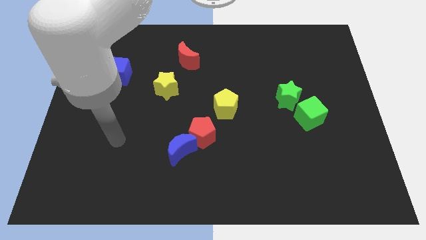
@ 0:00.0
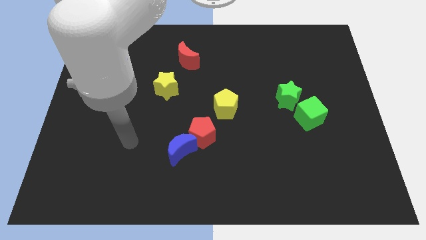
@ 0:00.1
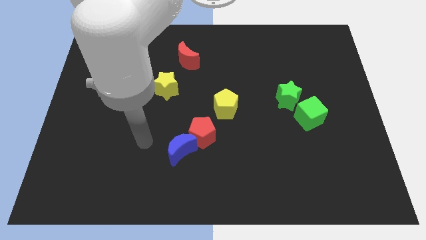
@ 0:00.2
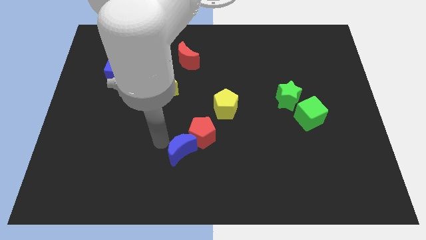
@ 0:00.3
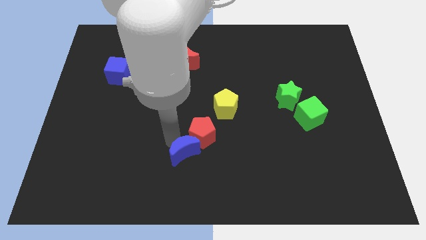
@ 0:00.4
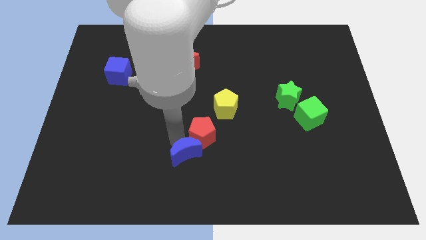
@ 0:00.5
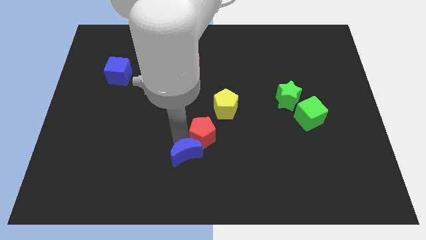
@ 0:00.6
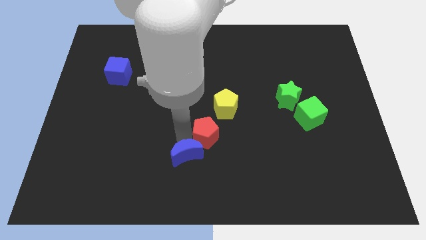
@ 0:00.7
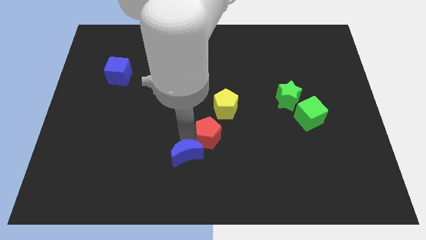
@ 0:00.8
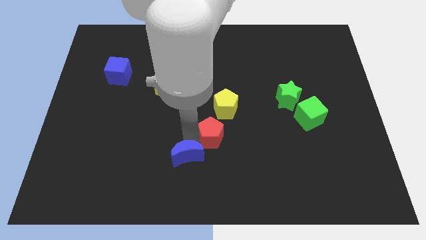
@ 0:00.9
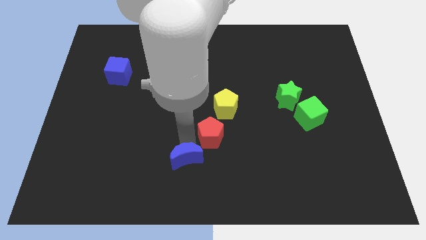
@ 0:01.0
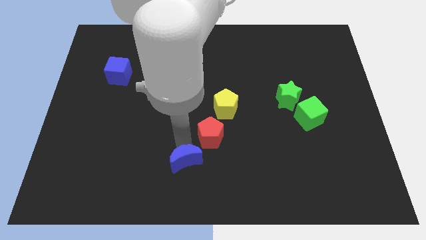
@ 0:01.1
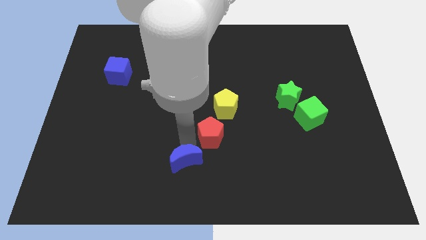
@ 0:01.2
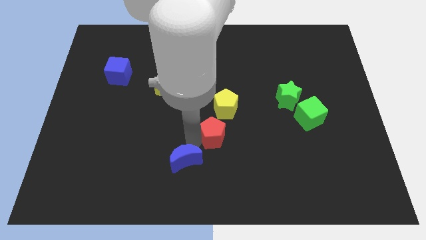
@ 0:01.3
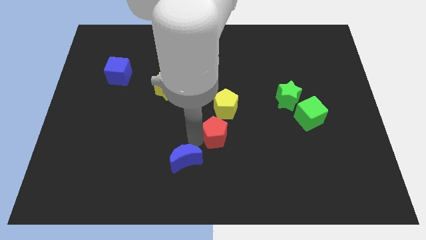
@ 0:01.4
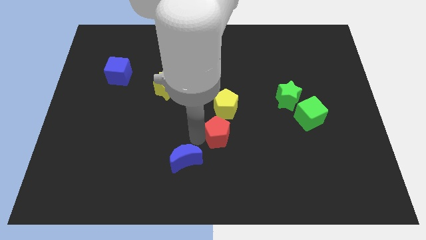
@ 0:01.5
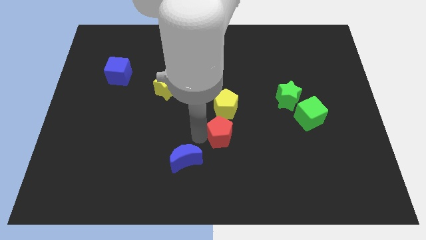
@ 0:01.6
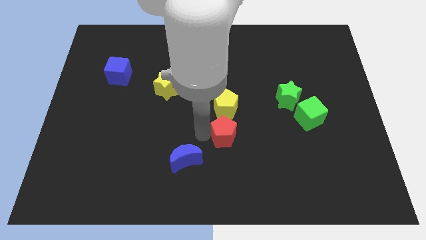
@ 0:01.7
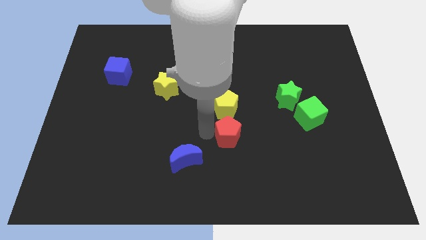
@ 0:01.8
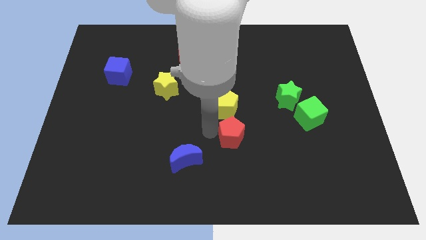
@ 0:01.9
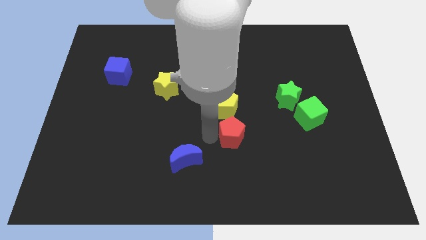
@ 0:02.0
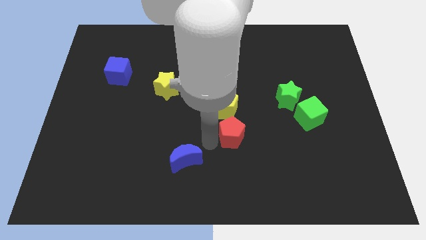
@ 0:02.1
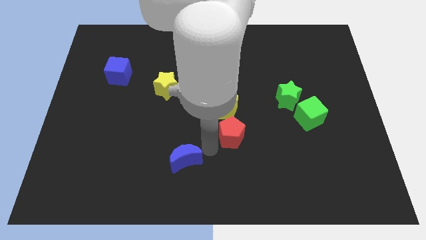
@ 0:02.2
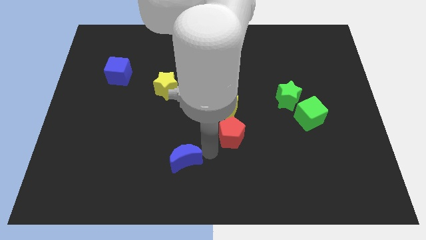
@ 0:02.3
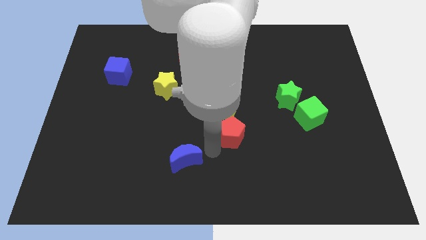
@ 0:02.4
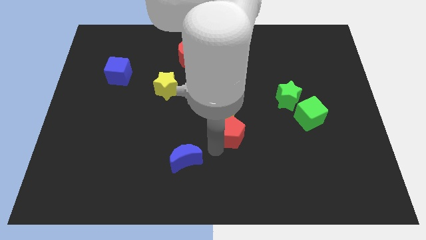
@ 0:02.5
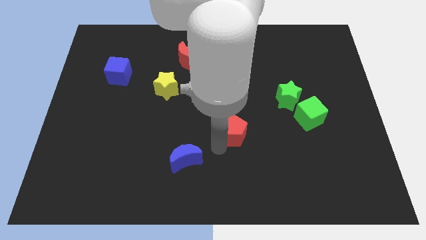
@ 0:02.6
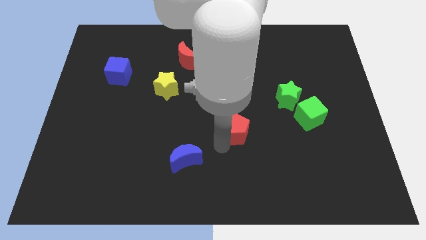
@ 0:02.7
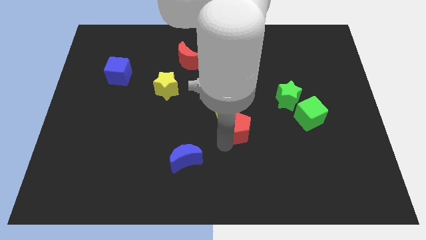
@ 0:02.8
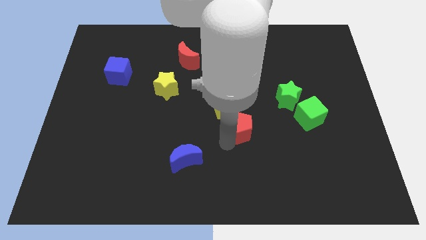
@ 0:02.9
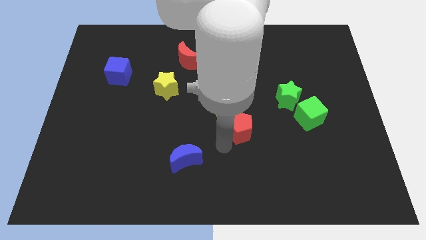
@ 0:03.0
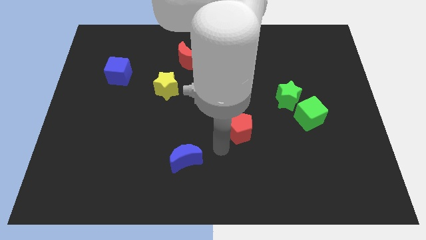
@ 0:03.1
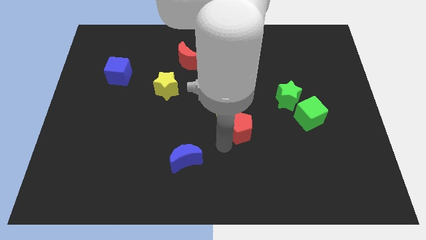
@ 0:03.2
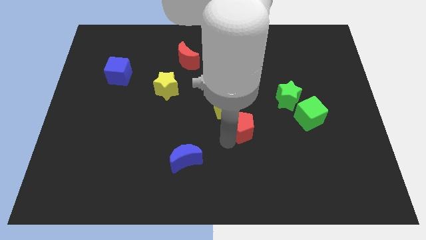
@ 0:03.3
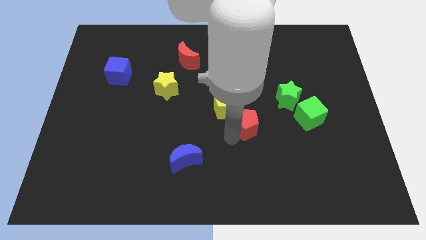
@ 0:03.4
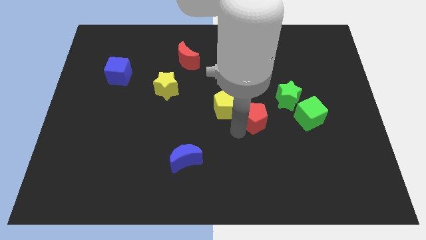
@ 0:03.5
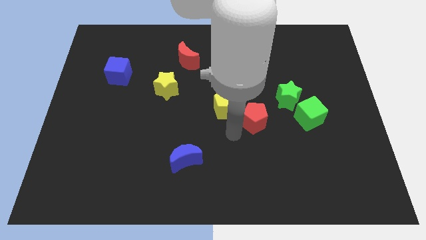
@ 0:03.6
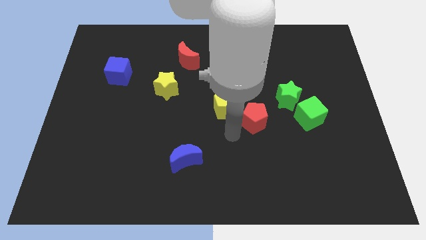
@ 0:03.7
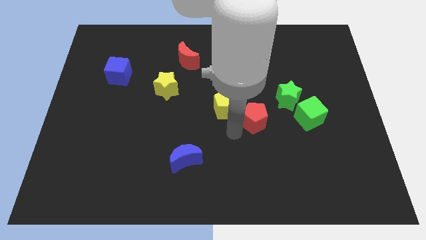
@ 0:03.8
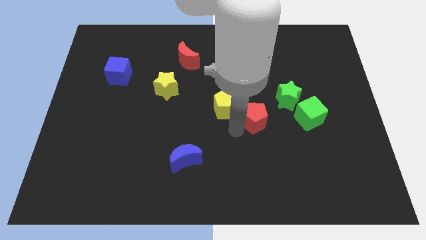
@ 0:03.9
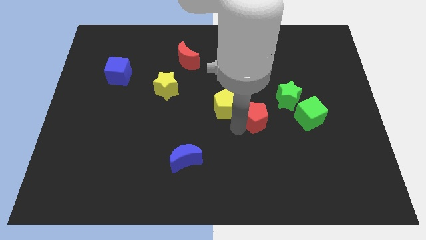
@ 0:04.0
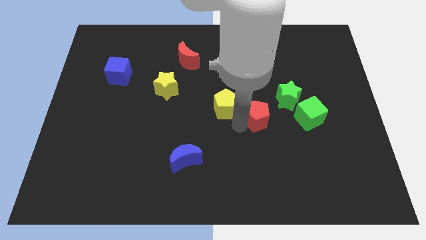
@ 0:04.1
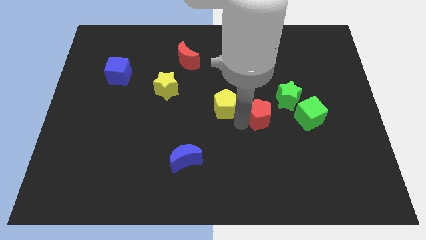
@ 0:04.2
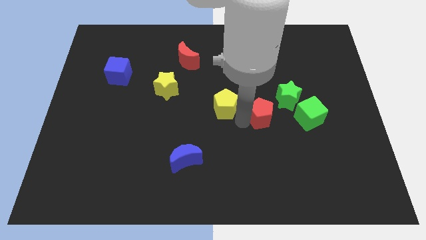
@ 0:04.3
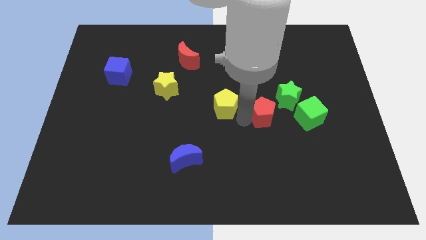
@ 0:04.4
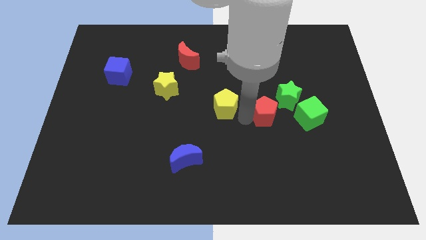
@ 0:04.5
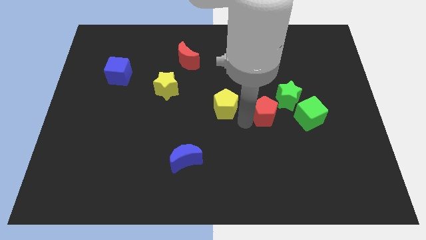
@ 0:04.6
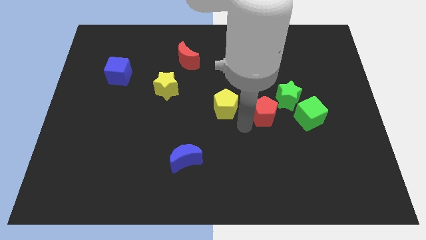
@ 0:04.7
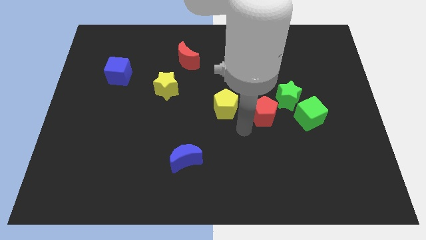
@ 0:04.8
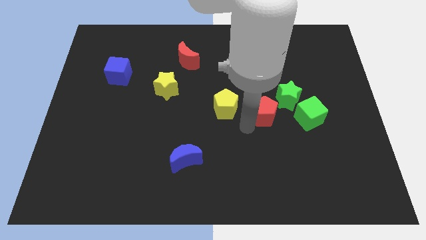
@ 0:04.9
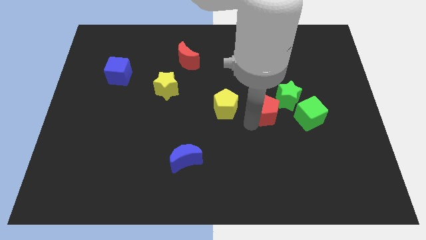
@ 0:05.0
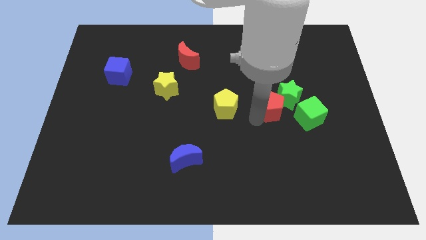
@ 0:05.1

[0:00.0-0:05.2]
move the red pentagon next to the green star

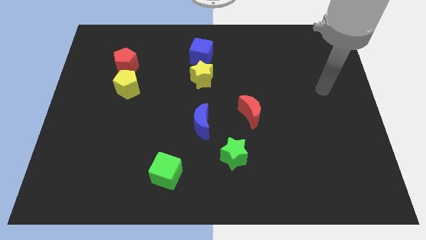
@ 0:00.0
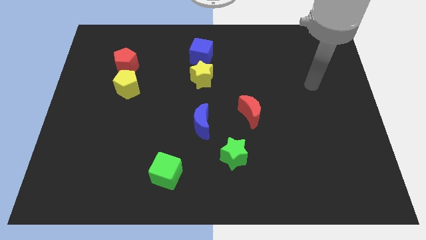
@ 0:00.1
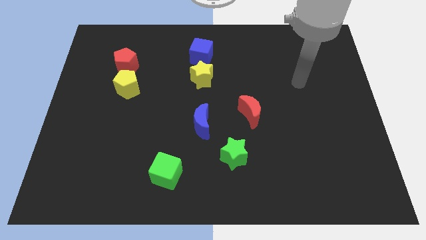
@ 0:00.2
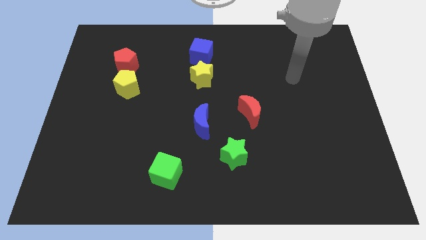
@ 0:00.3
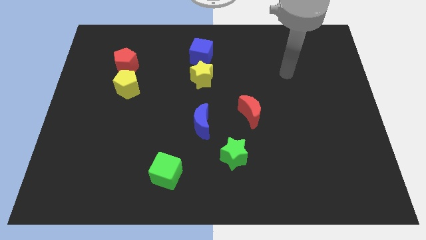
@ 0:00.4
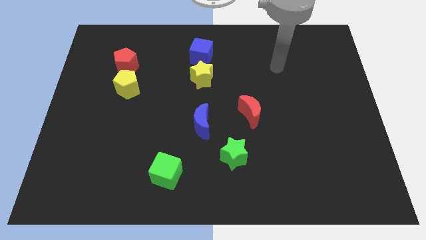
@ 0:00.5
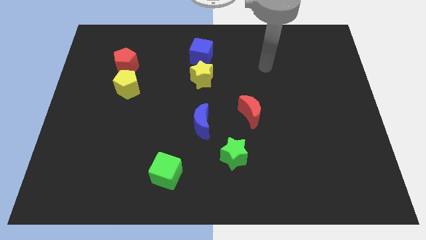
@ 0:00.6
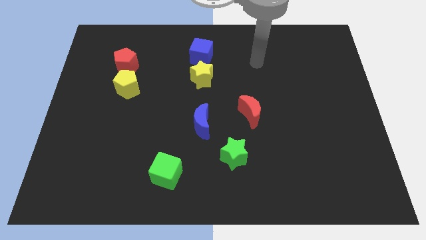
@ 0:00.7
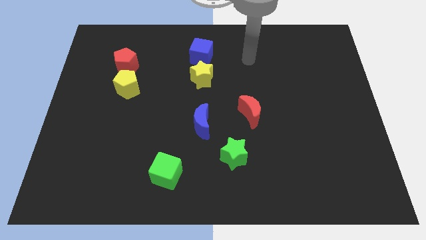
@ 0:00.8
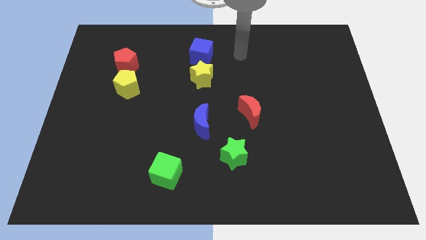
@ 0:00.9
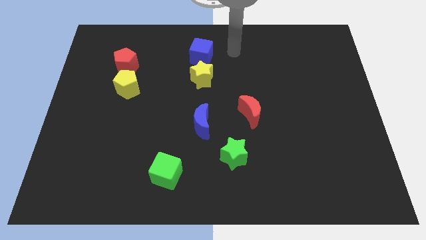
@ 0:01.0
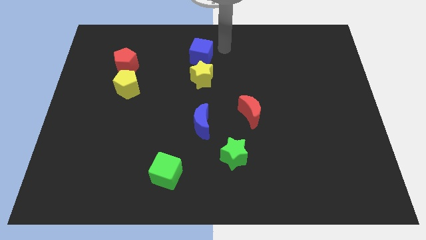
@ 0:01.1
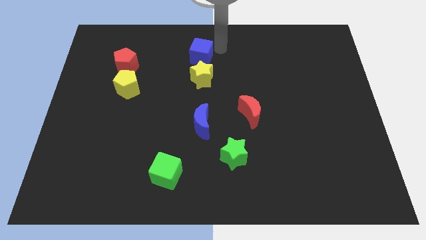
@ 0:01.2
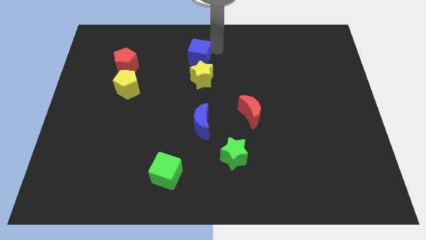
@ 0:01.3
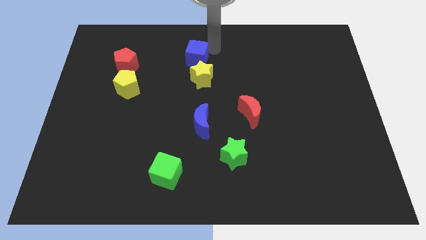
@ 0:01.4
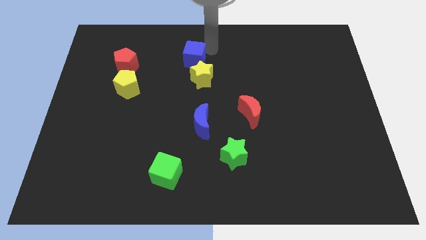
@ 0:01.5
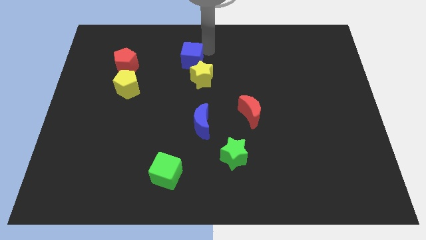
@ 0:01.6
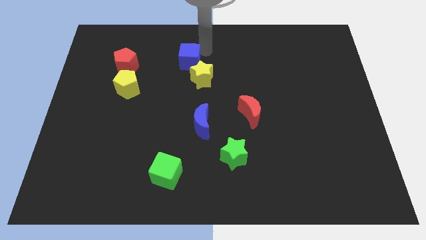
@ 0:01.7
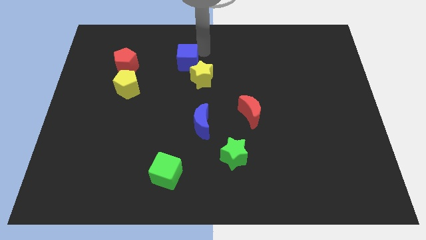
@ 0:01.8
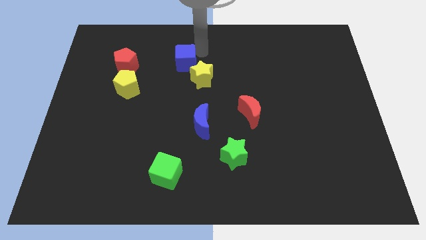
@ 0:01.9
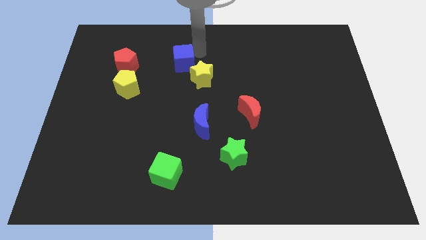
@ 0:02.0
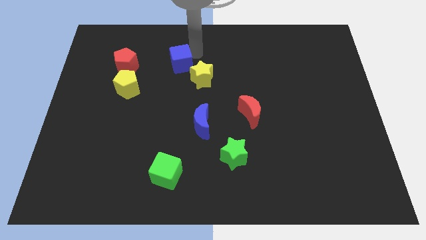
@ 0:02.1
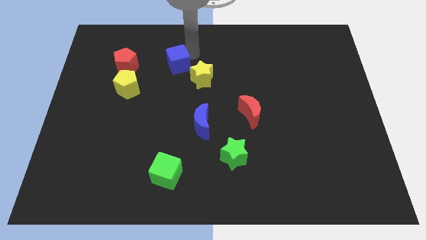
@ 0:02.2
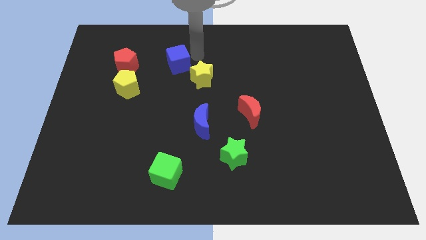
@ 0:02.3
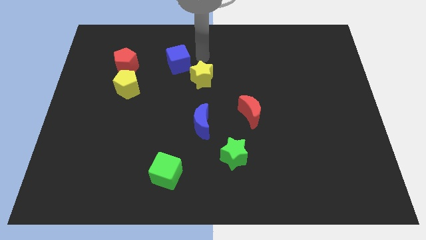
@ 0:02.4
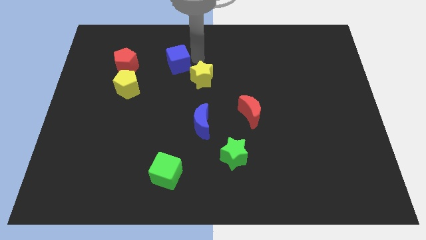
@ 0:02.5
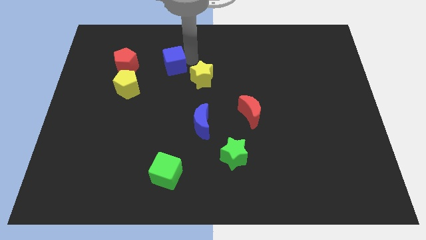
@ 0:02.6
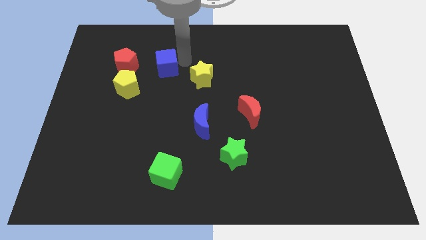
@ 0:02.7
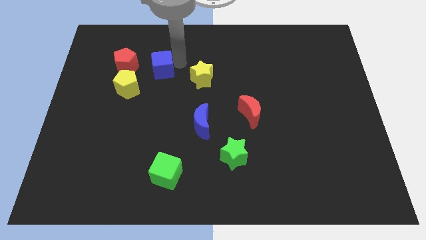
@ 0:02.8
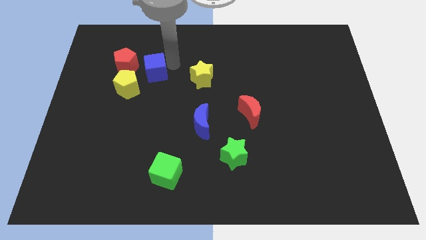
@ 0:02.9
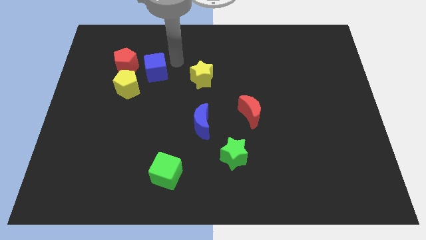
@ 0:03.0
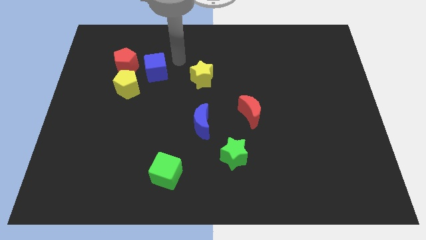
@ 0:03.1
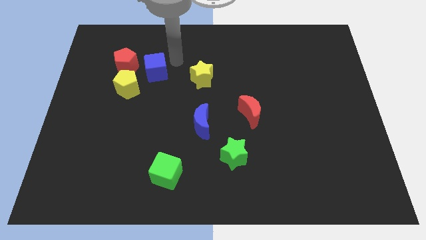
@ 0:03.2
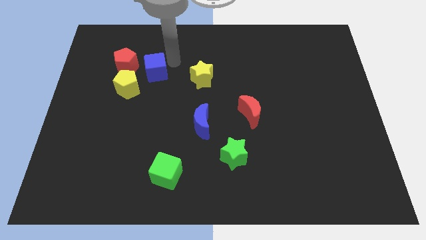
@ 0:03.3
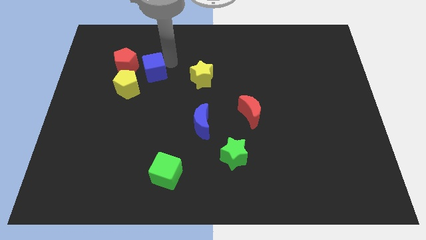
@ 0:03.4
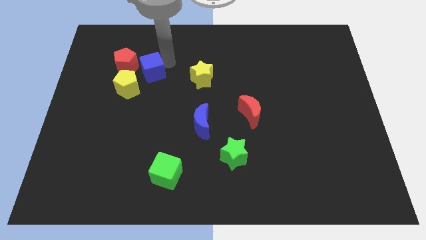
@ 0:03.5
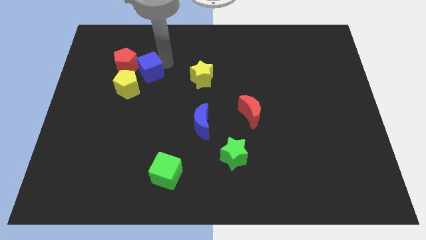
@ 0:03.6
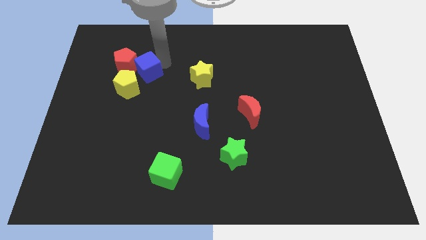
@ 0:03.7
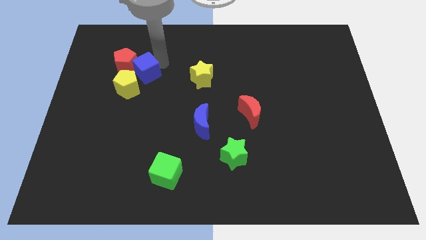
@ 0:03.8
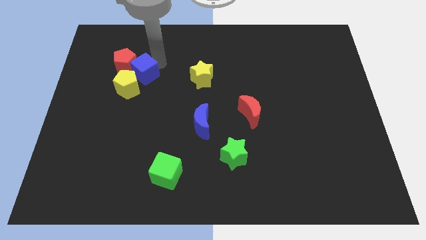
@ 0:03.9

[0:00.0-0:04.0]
put the blue cube to the yellow pentagon
